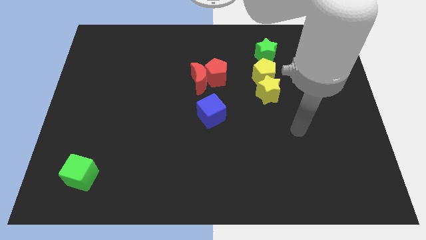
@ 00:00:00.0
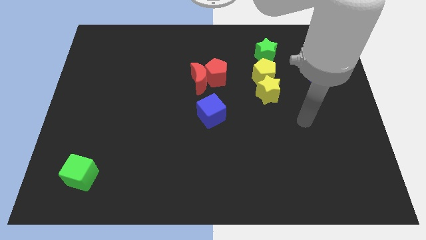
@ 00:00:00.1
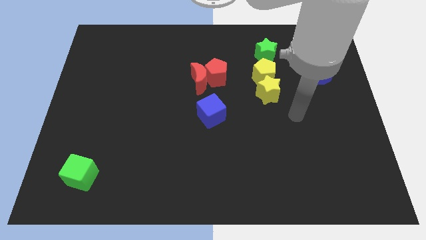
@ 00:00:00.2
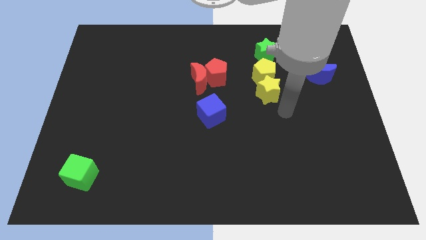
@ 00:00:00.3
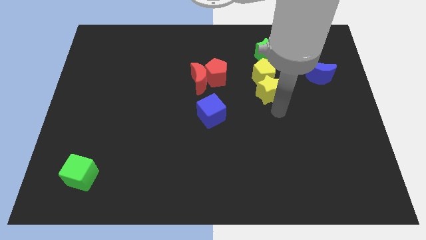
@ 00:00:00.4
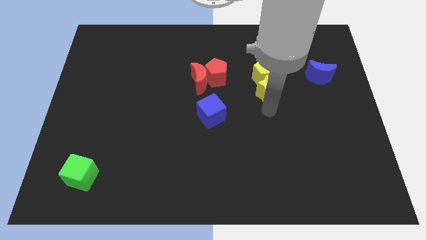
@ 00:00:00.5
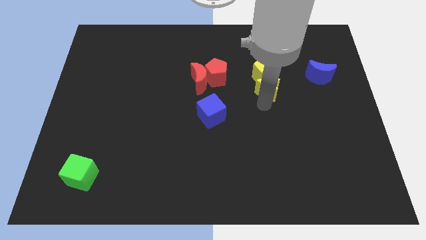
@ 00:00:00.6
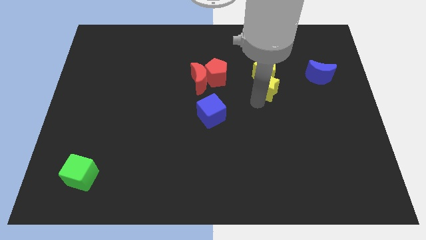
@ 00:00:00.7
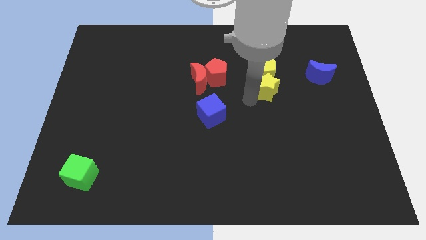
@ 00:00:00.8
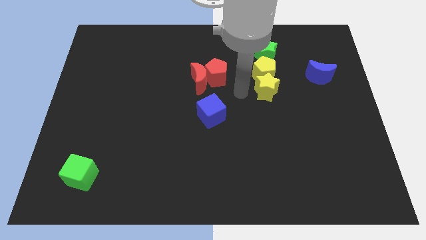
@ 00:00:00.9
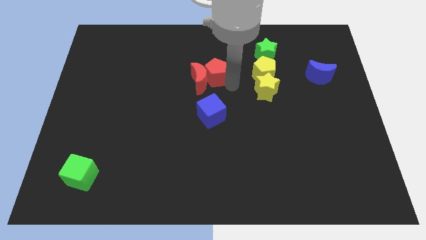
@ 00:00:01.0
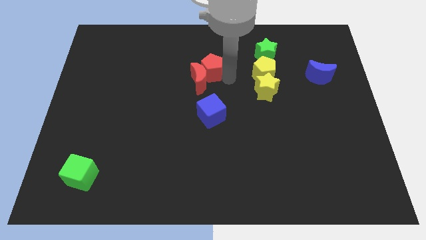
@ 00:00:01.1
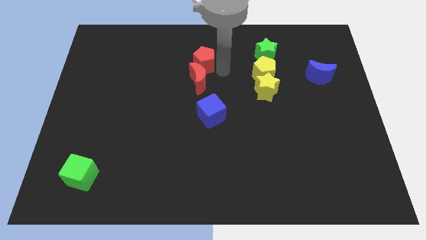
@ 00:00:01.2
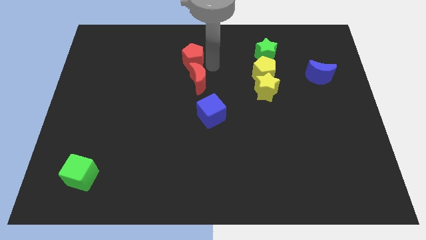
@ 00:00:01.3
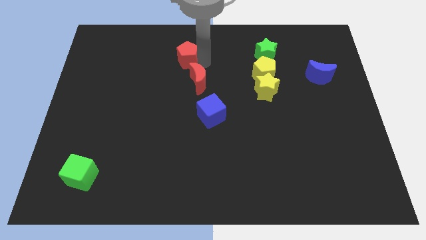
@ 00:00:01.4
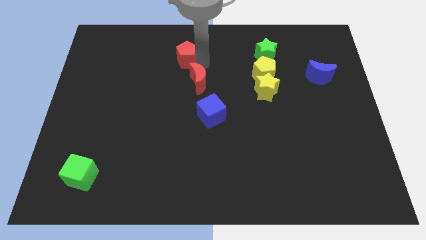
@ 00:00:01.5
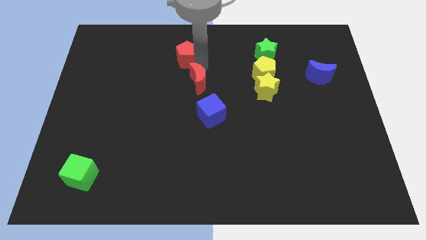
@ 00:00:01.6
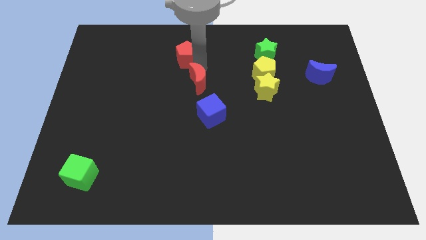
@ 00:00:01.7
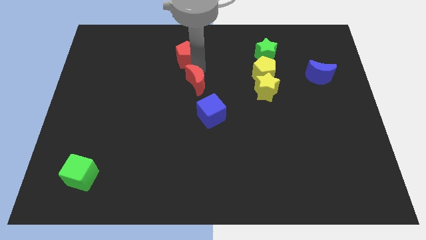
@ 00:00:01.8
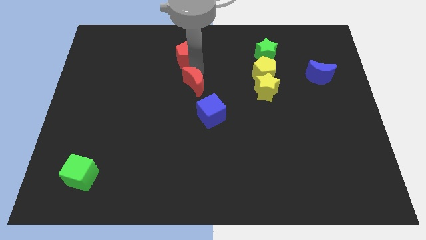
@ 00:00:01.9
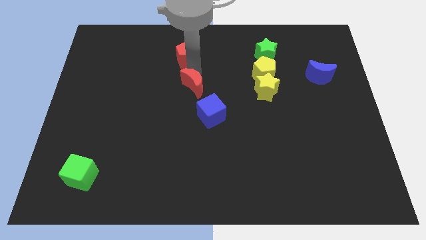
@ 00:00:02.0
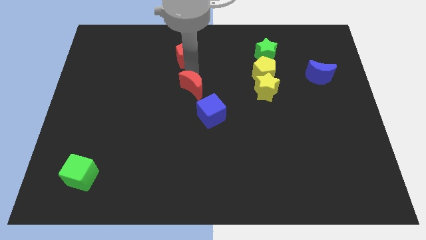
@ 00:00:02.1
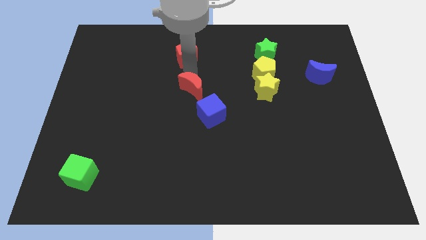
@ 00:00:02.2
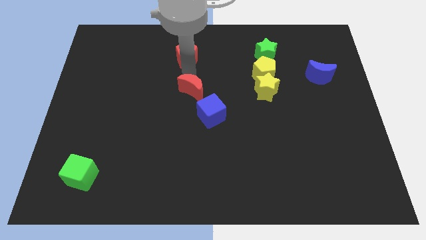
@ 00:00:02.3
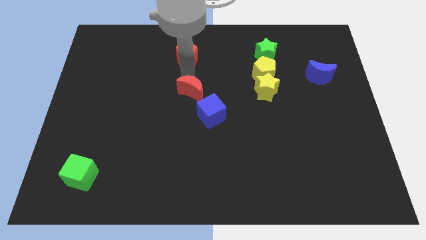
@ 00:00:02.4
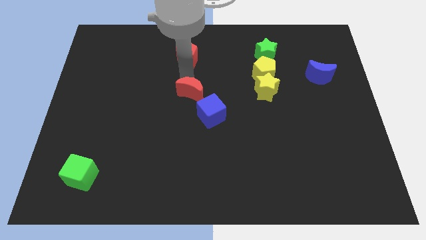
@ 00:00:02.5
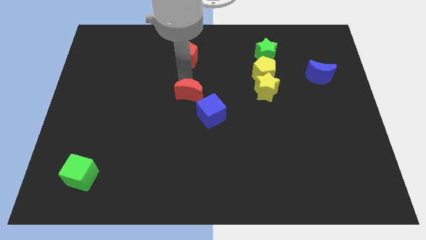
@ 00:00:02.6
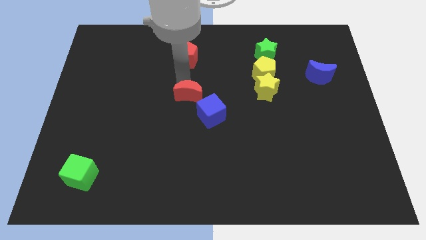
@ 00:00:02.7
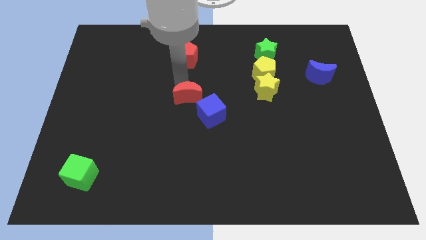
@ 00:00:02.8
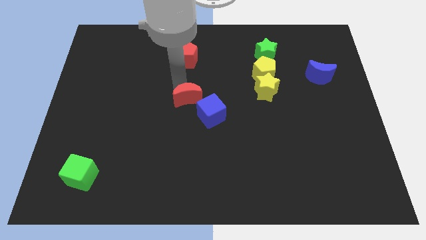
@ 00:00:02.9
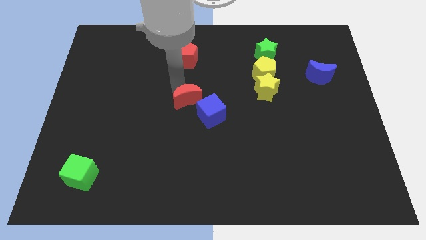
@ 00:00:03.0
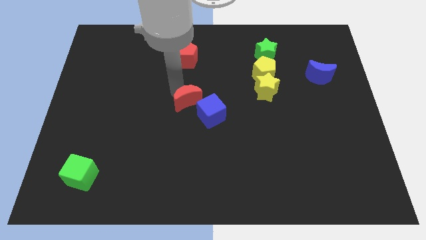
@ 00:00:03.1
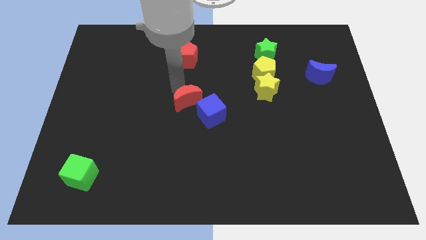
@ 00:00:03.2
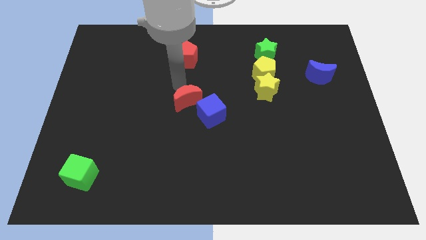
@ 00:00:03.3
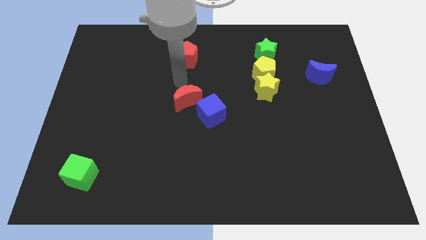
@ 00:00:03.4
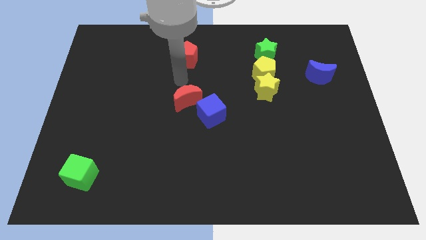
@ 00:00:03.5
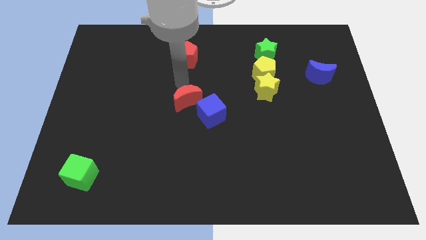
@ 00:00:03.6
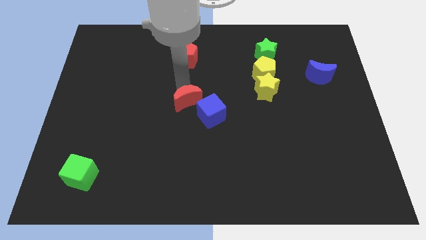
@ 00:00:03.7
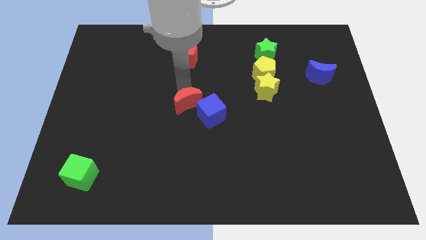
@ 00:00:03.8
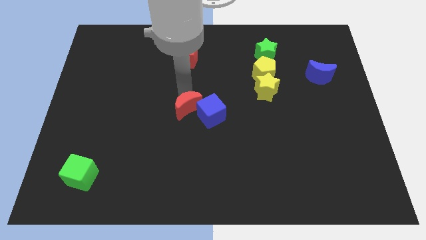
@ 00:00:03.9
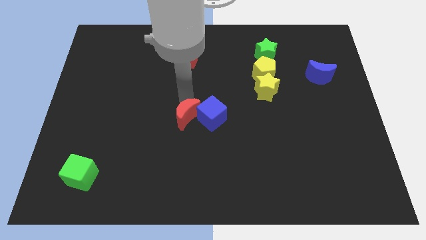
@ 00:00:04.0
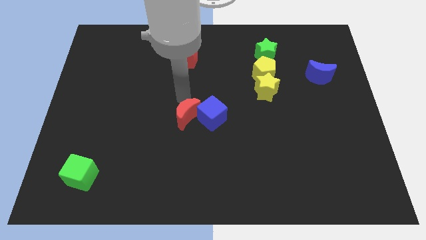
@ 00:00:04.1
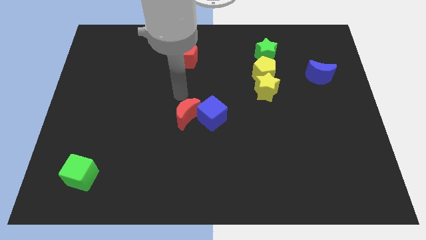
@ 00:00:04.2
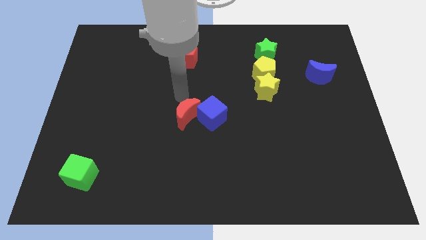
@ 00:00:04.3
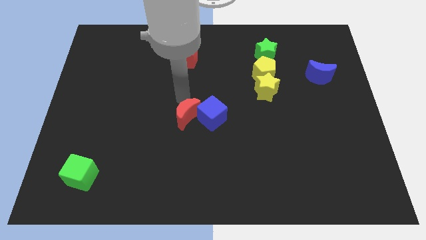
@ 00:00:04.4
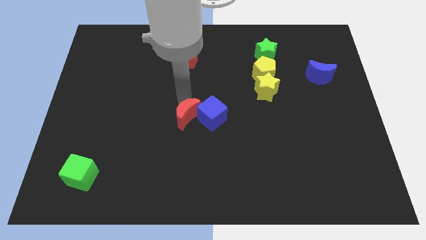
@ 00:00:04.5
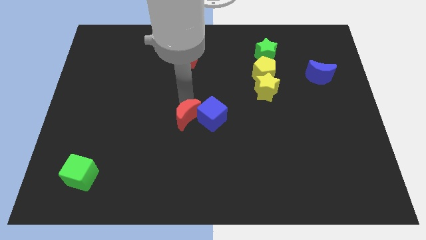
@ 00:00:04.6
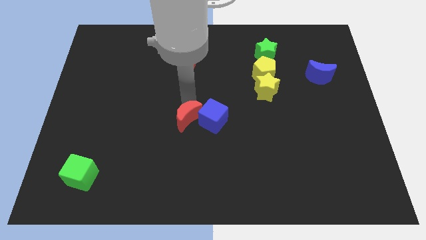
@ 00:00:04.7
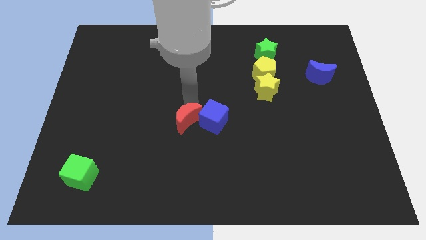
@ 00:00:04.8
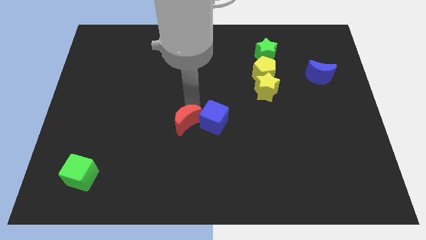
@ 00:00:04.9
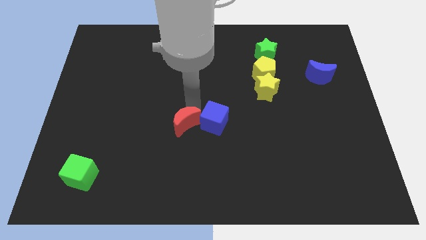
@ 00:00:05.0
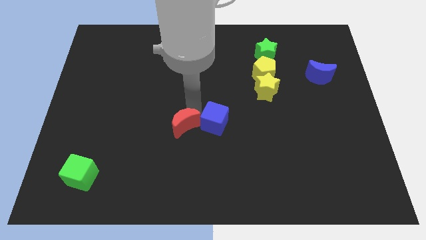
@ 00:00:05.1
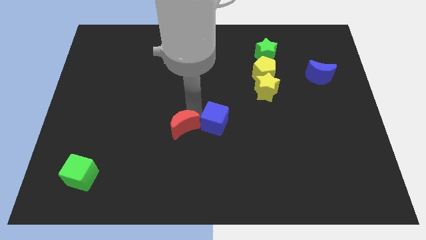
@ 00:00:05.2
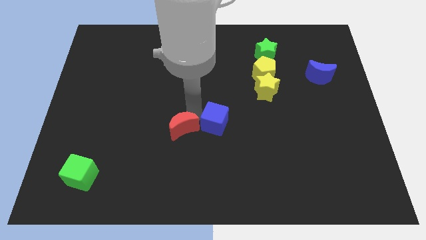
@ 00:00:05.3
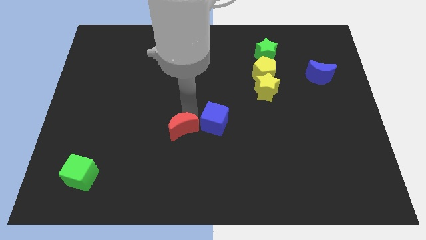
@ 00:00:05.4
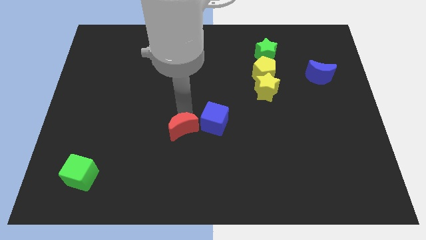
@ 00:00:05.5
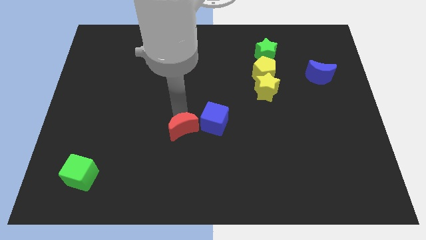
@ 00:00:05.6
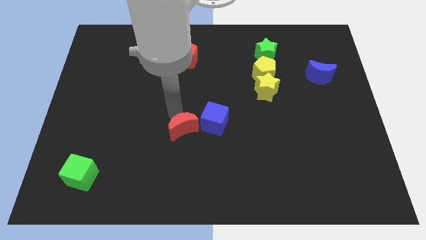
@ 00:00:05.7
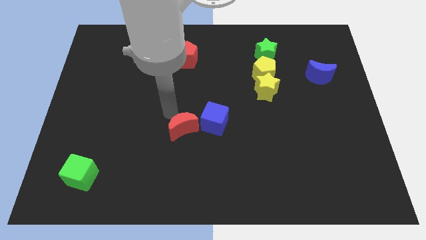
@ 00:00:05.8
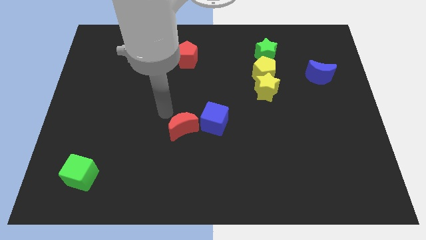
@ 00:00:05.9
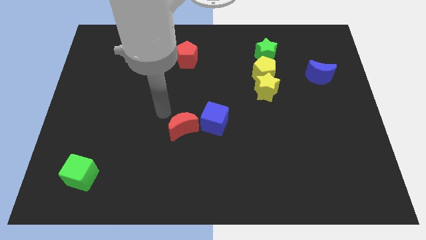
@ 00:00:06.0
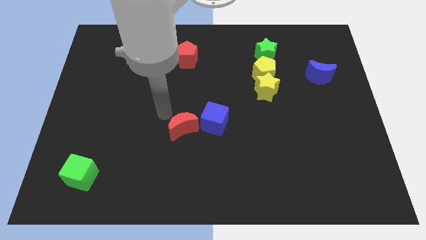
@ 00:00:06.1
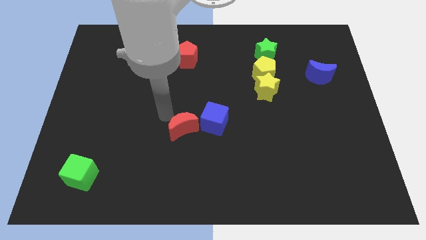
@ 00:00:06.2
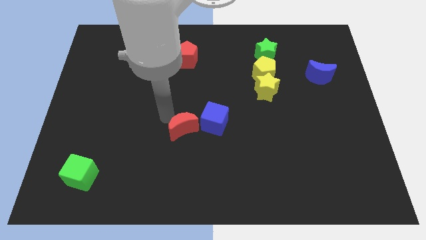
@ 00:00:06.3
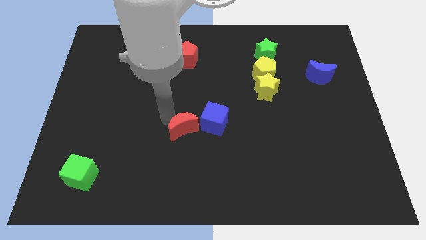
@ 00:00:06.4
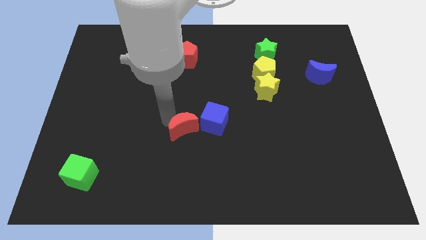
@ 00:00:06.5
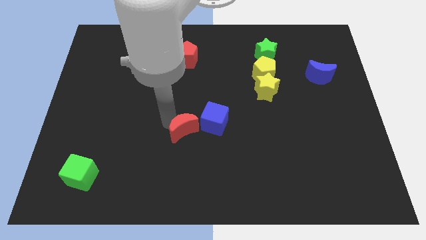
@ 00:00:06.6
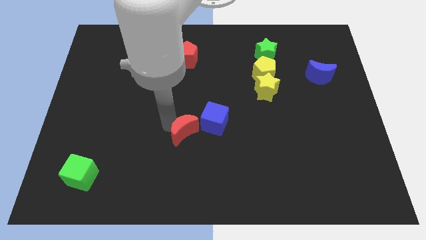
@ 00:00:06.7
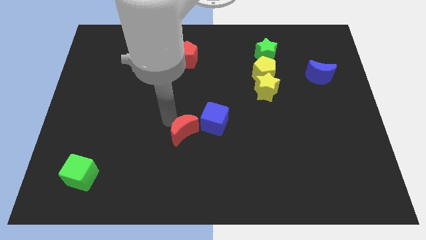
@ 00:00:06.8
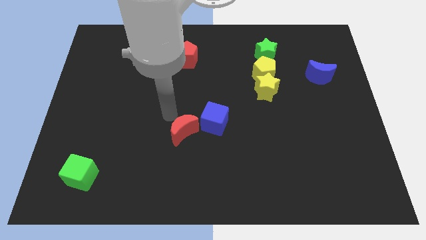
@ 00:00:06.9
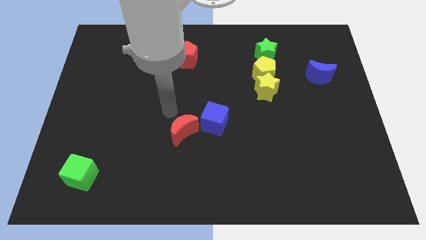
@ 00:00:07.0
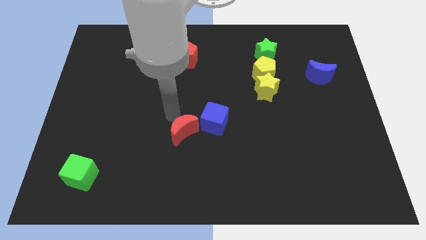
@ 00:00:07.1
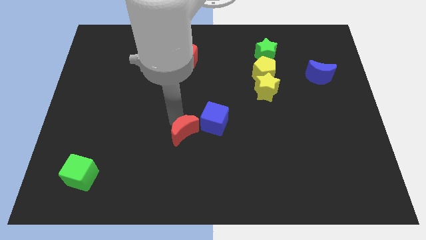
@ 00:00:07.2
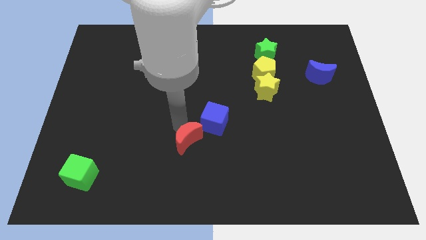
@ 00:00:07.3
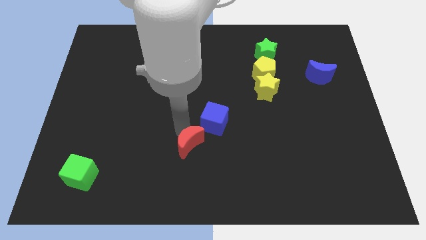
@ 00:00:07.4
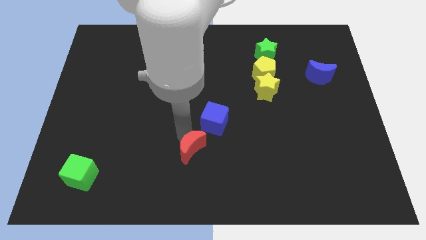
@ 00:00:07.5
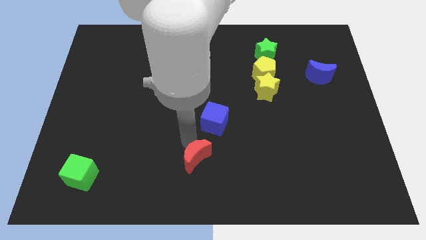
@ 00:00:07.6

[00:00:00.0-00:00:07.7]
put the red moon to the bottom side
